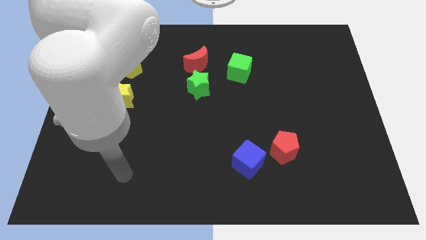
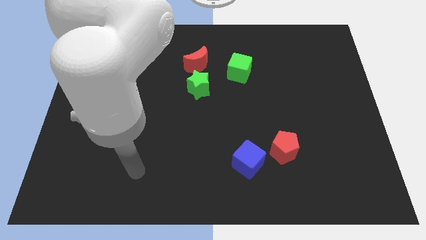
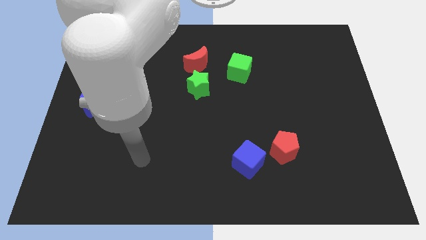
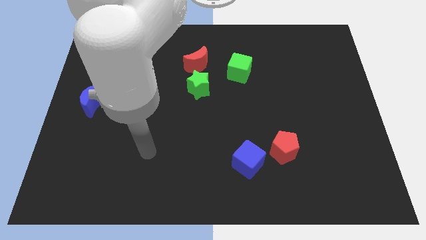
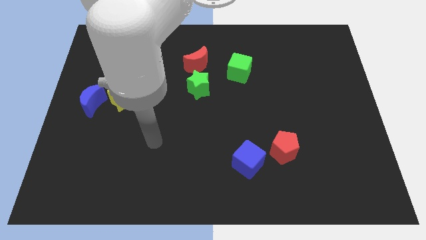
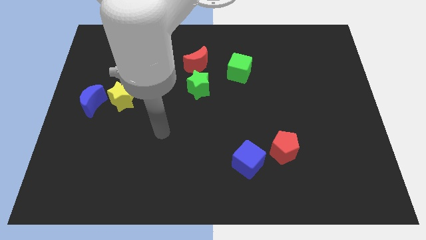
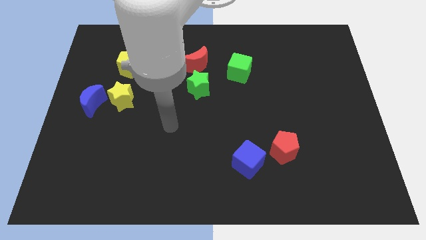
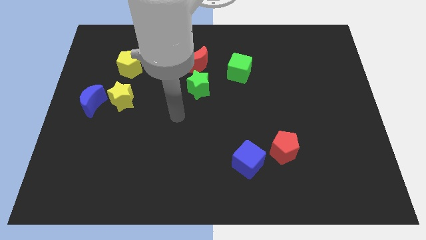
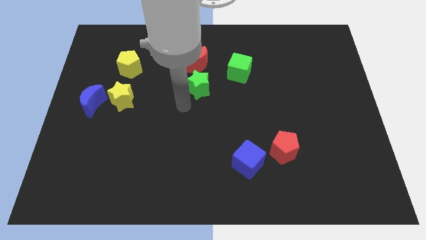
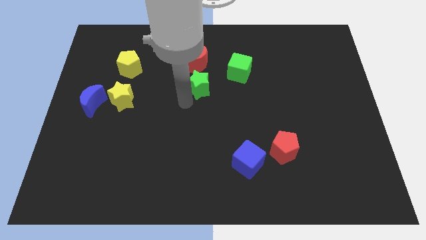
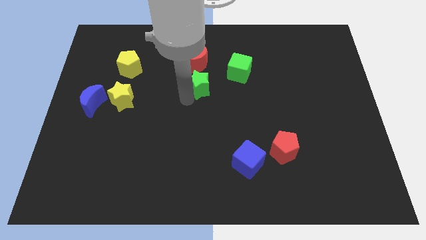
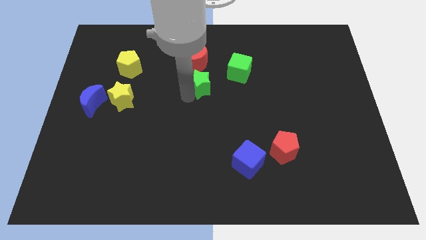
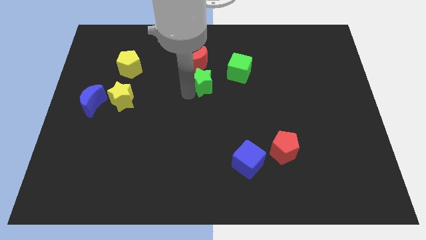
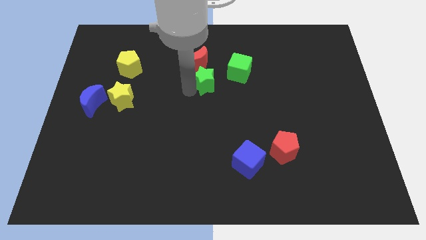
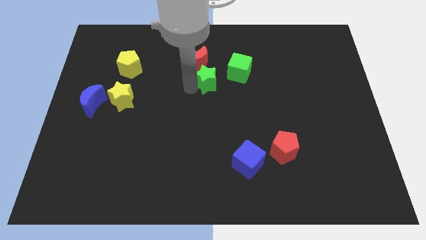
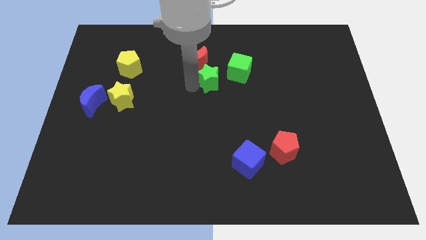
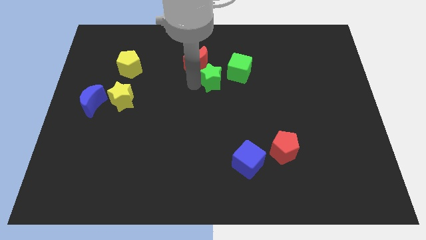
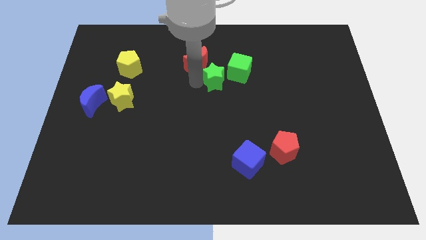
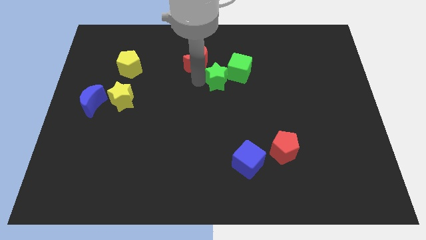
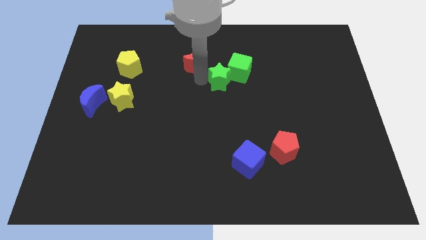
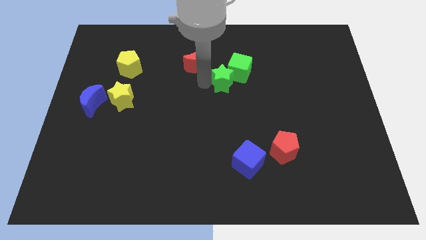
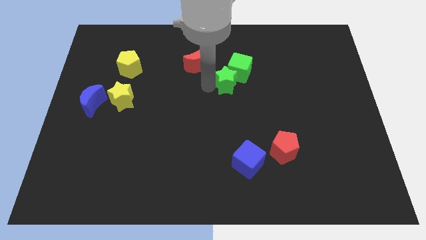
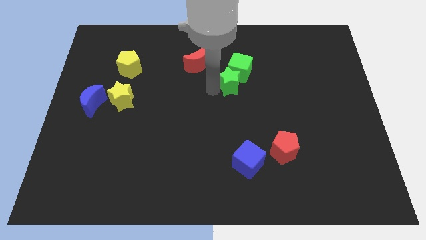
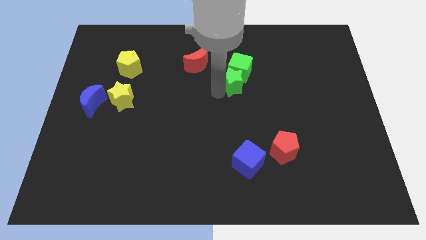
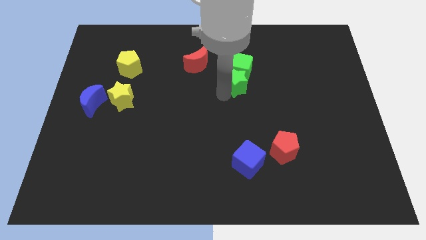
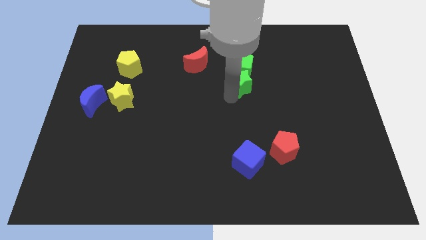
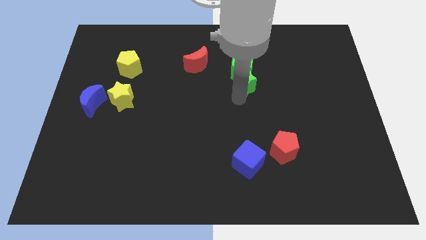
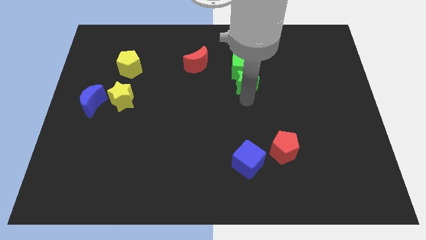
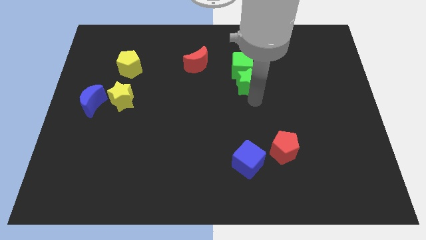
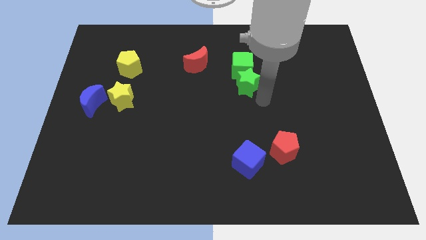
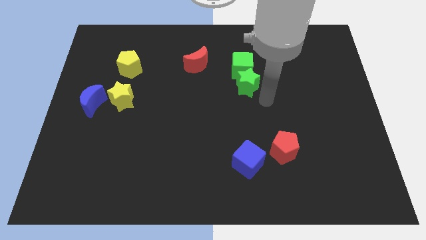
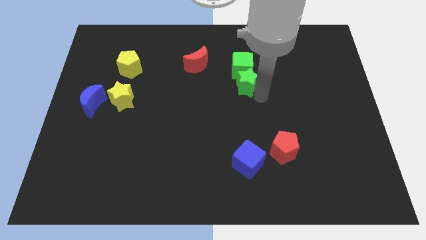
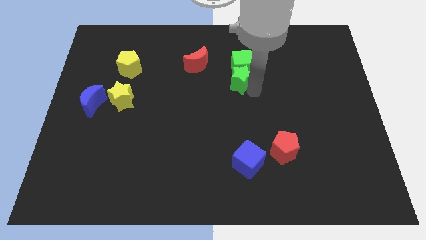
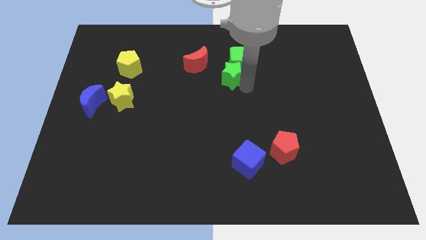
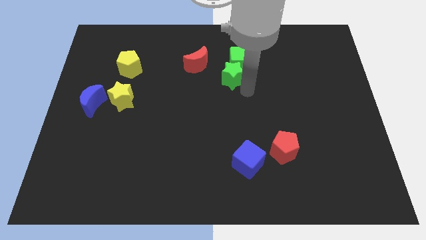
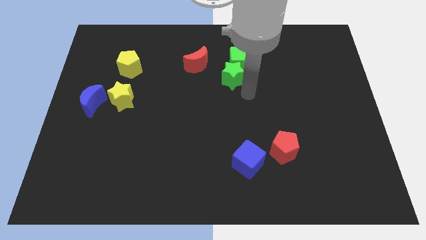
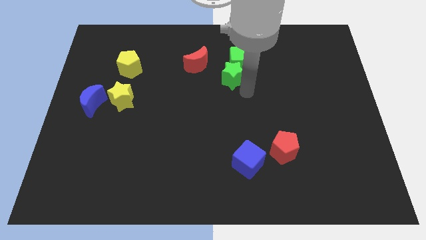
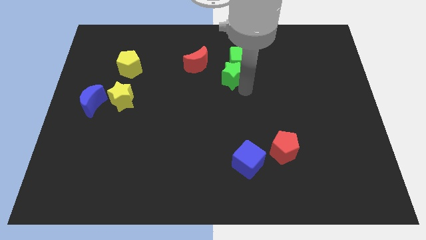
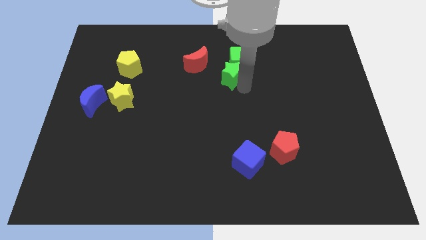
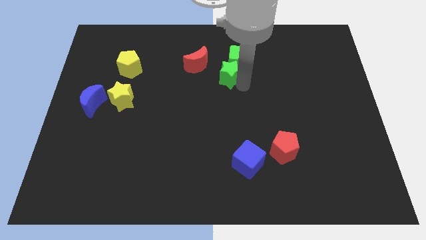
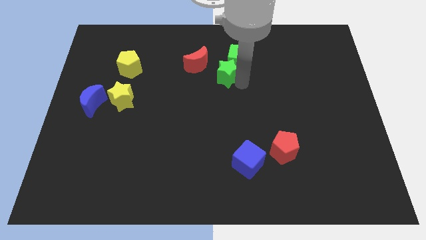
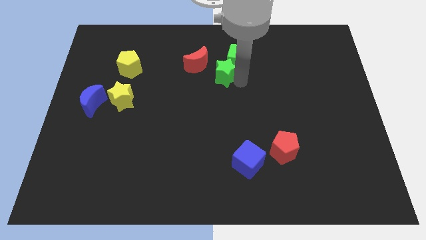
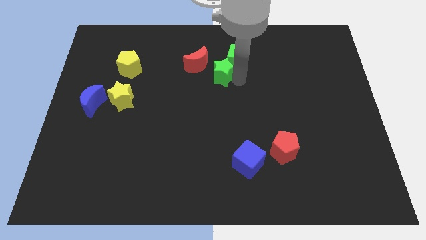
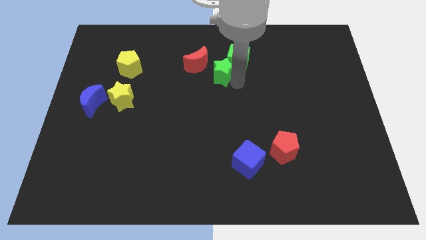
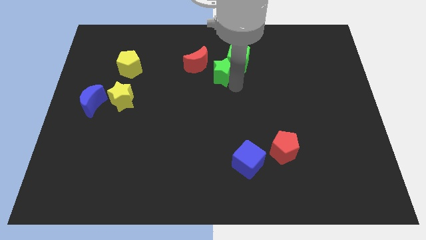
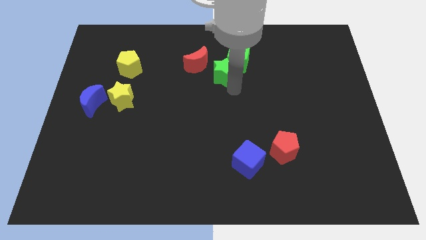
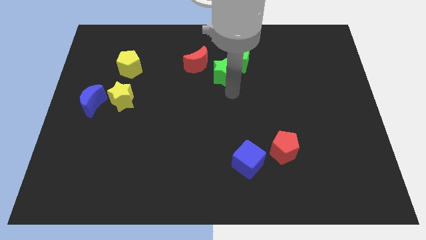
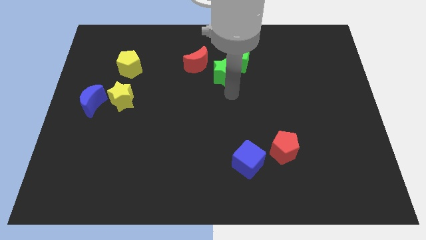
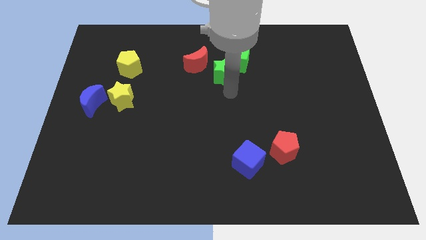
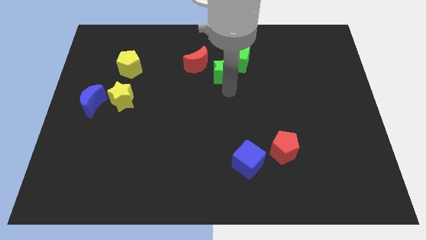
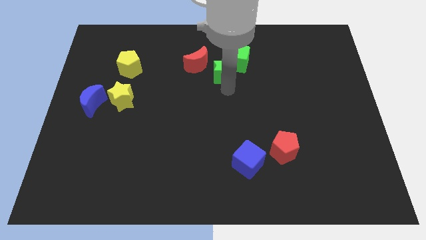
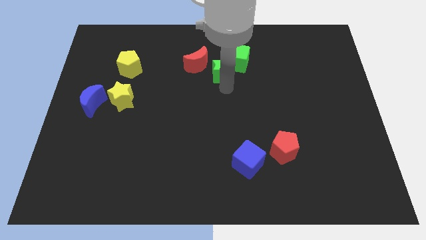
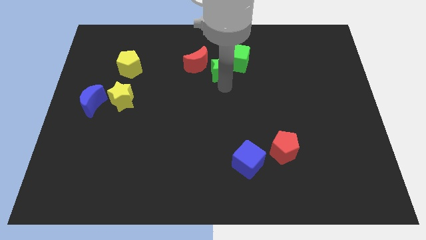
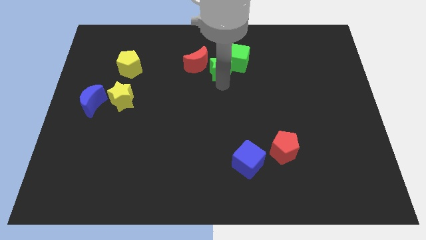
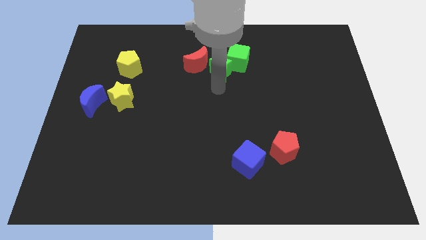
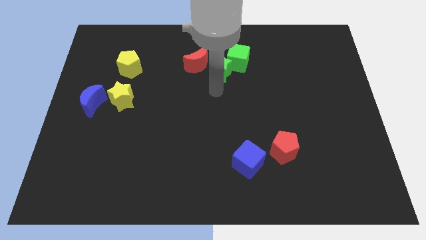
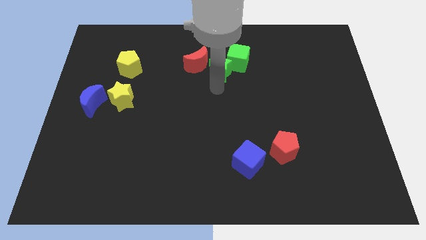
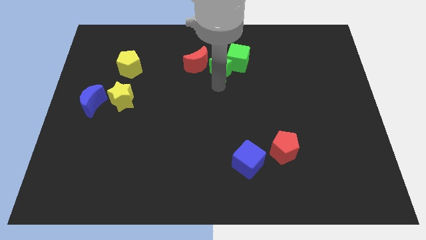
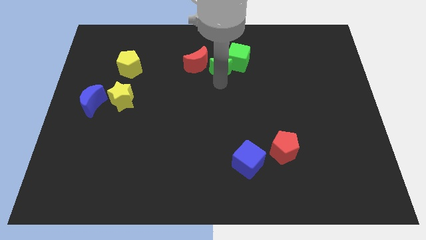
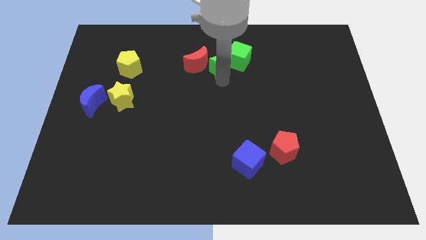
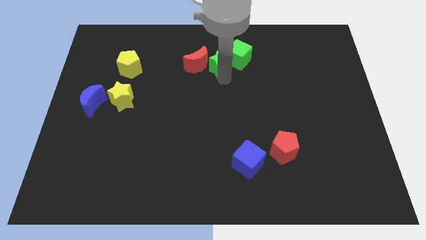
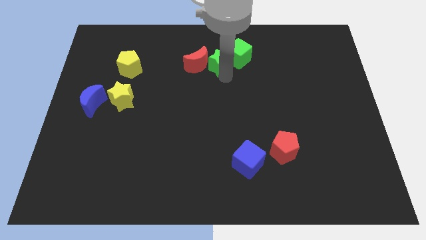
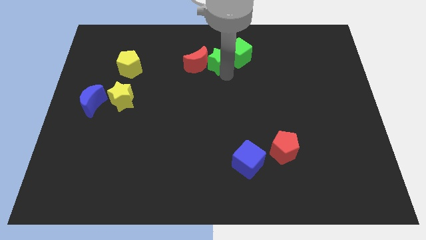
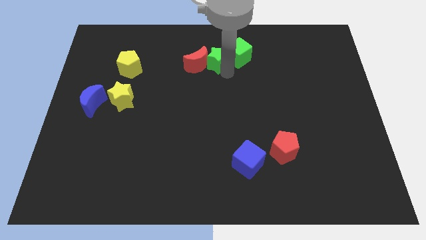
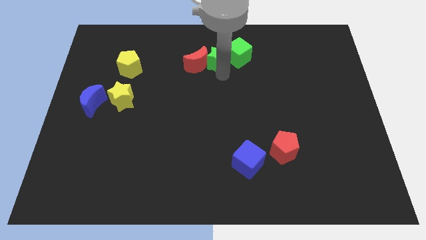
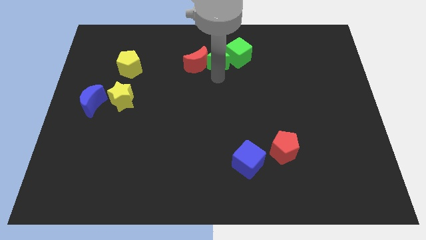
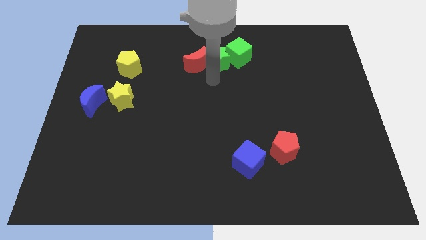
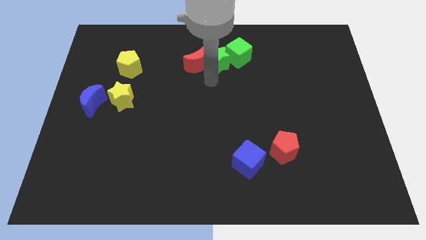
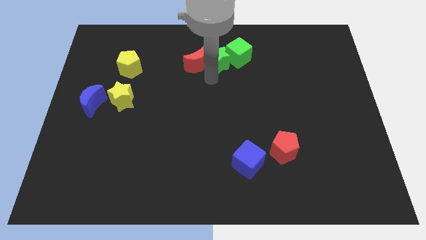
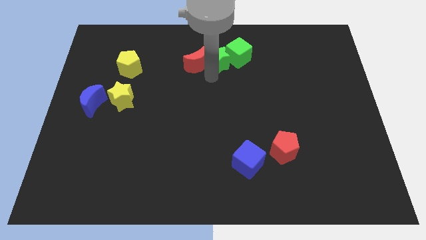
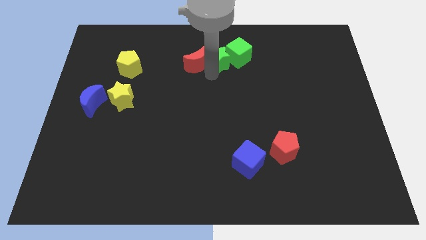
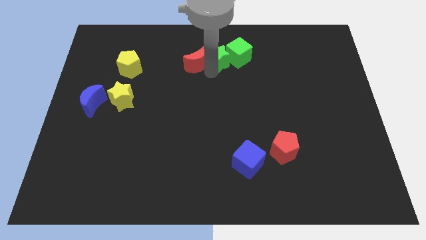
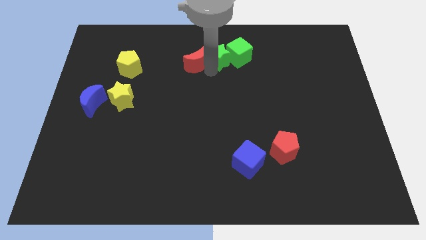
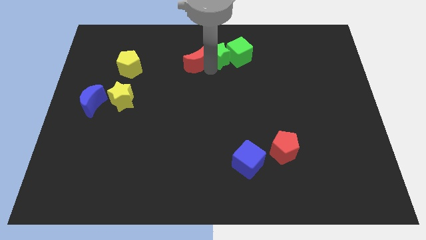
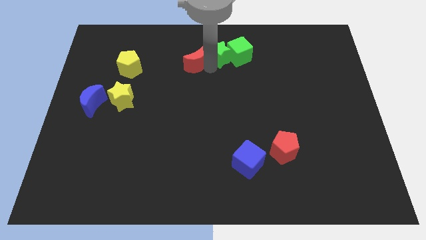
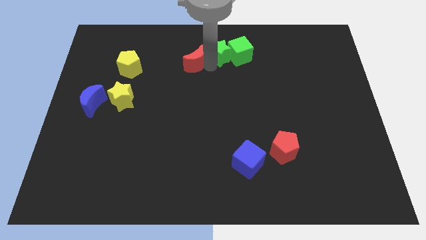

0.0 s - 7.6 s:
slide the green star to the towards your base
